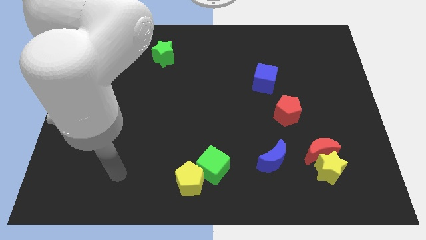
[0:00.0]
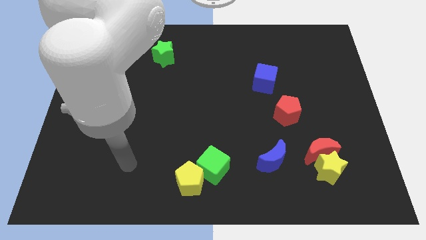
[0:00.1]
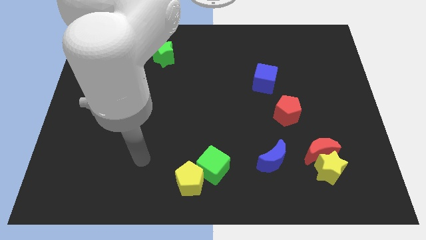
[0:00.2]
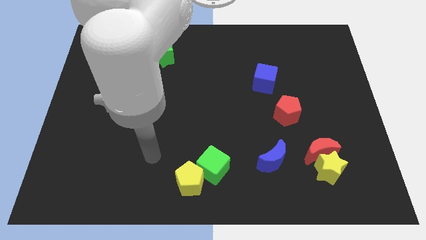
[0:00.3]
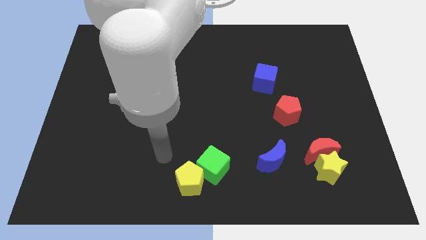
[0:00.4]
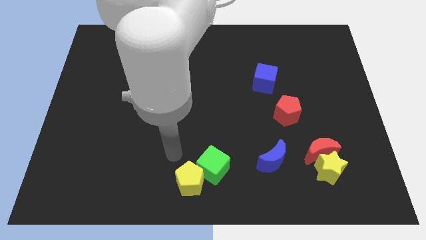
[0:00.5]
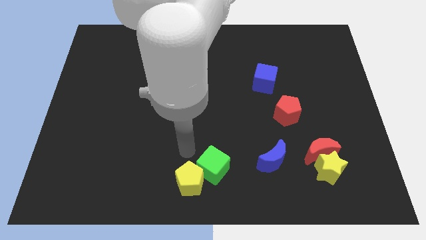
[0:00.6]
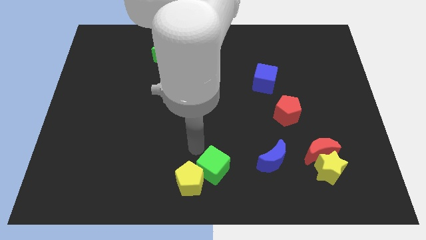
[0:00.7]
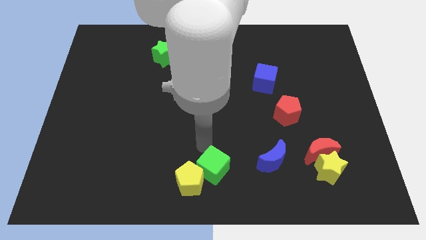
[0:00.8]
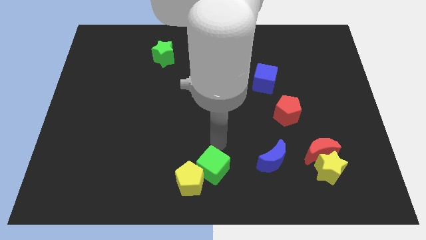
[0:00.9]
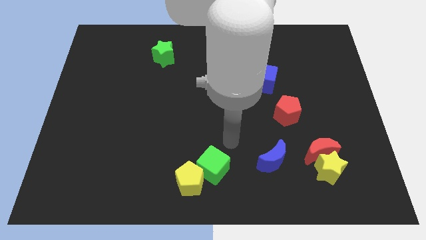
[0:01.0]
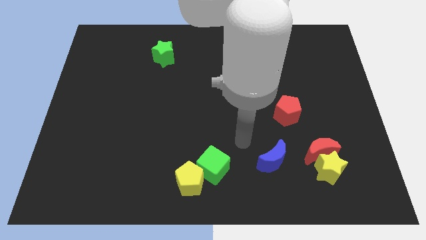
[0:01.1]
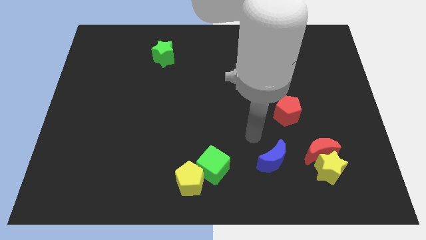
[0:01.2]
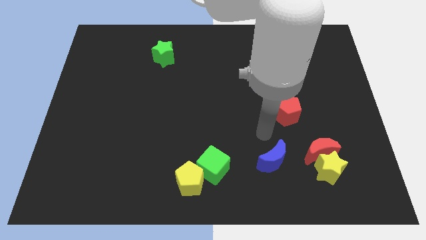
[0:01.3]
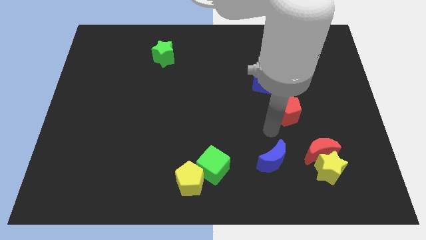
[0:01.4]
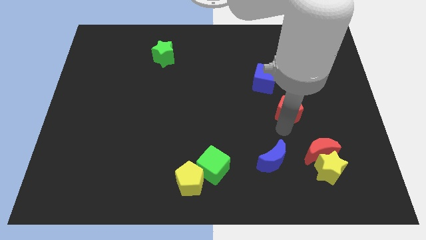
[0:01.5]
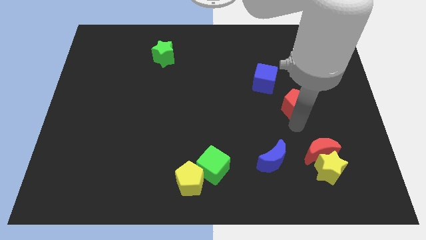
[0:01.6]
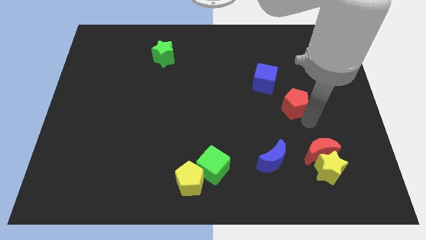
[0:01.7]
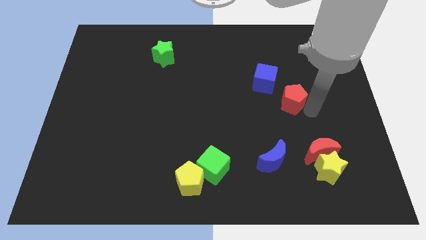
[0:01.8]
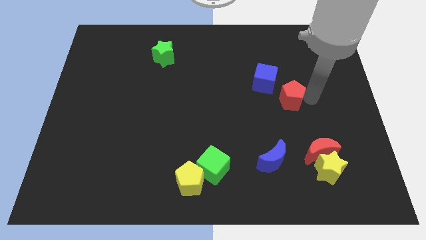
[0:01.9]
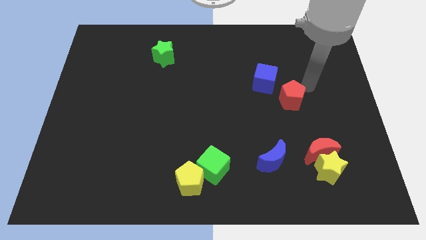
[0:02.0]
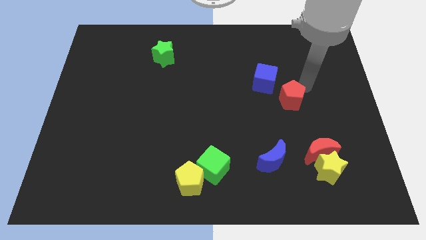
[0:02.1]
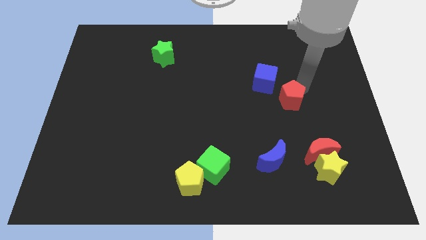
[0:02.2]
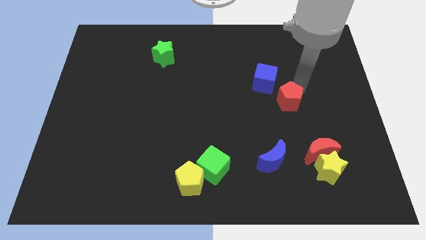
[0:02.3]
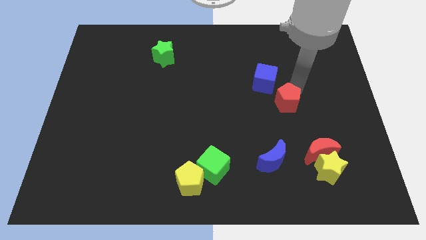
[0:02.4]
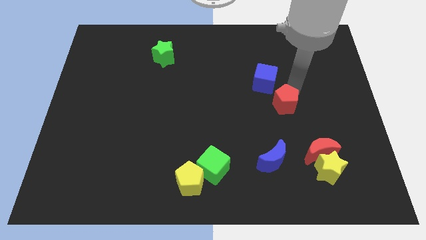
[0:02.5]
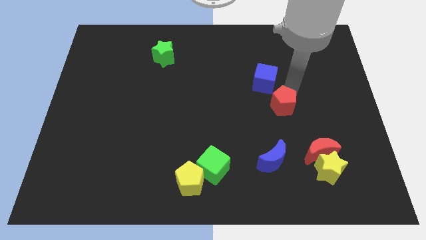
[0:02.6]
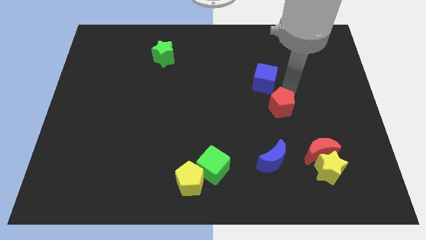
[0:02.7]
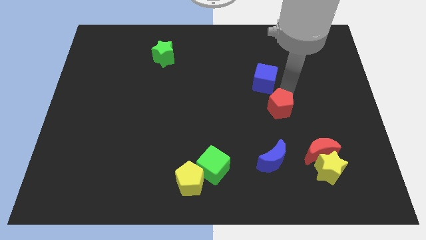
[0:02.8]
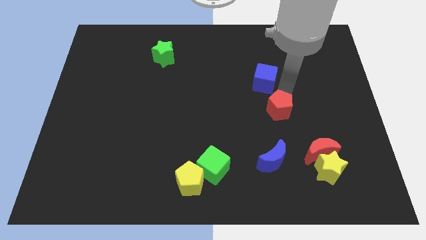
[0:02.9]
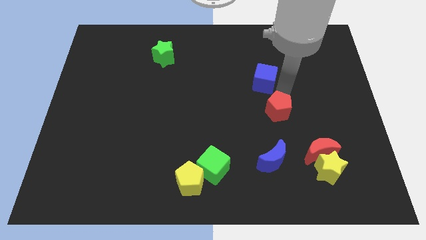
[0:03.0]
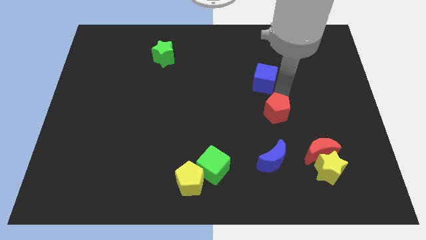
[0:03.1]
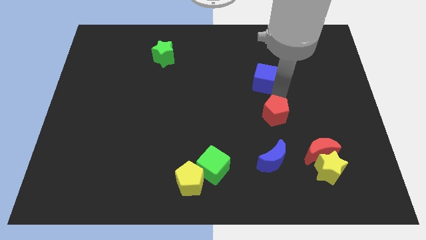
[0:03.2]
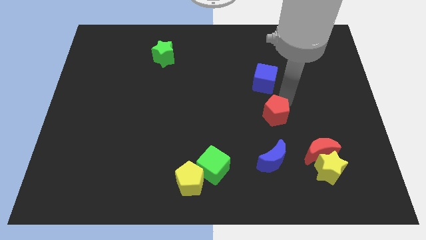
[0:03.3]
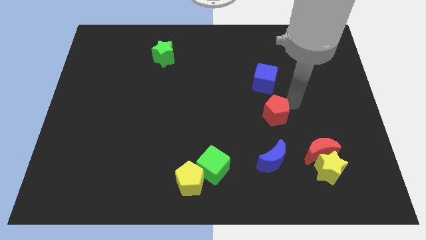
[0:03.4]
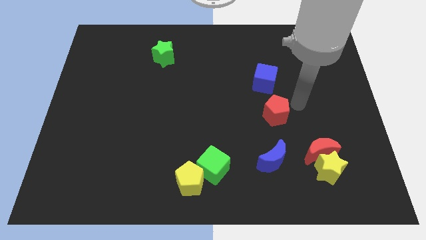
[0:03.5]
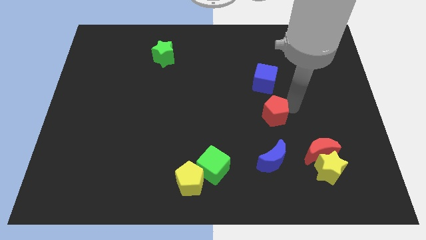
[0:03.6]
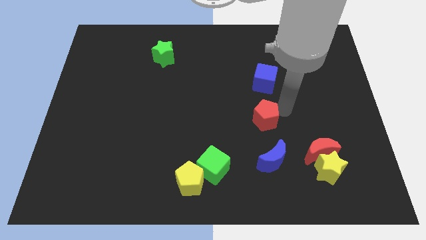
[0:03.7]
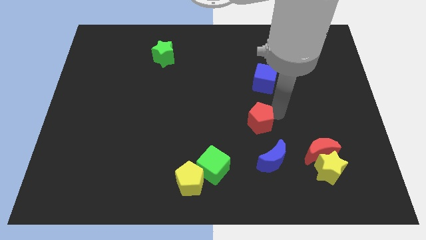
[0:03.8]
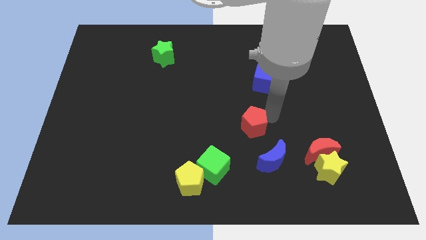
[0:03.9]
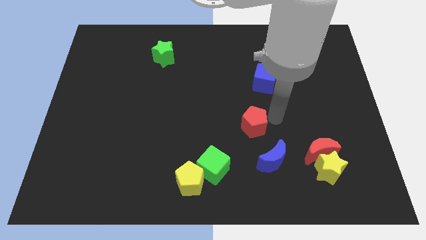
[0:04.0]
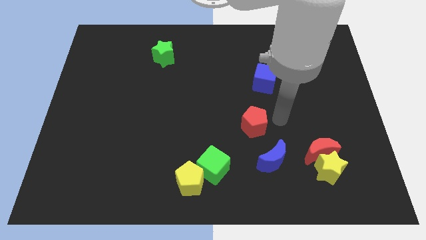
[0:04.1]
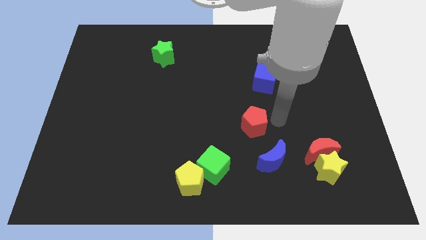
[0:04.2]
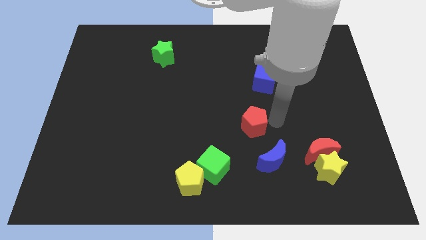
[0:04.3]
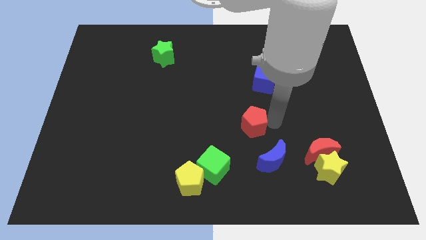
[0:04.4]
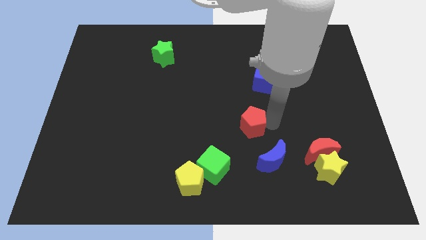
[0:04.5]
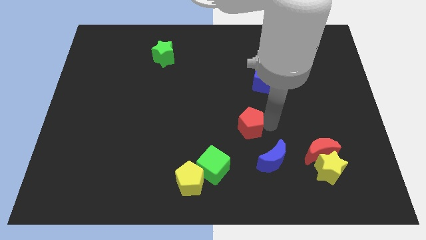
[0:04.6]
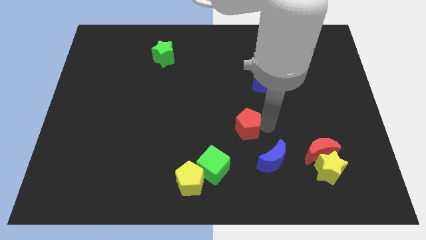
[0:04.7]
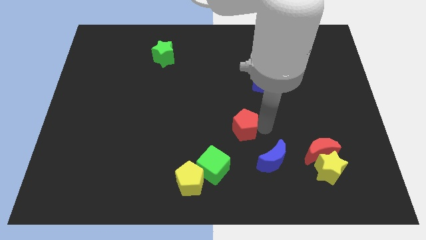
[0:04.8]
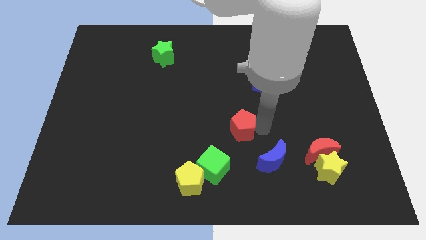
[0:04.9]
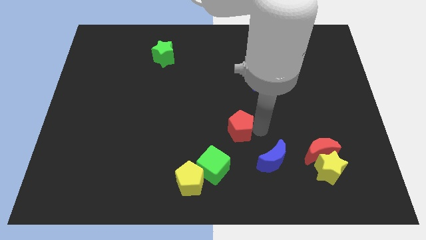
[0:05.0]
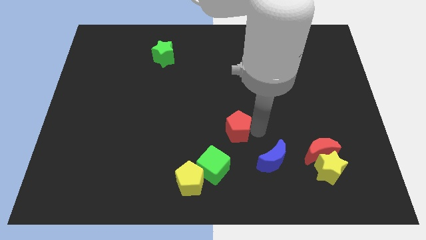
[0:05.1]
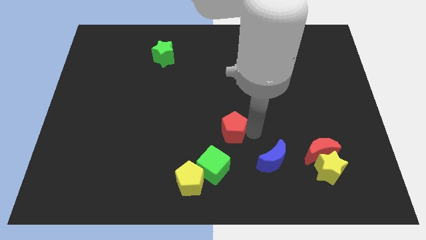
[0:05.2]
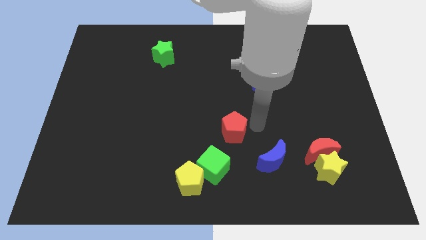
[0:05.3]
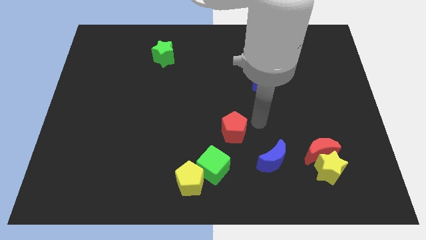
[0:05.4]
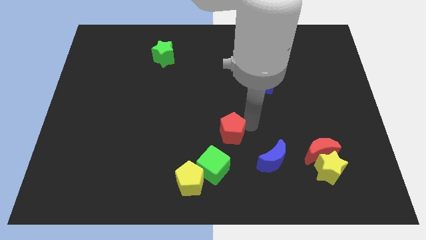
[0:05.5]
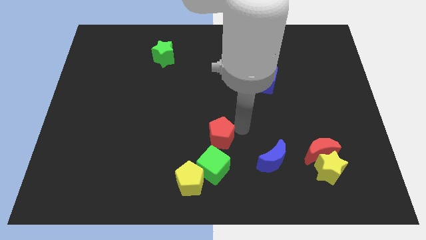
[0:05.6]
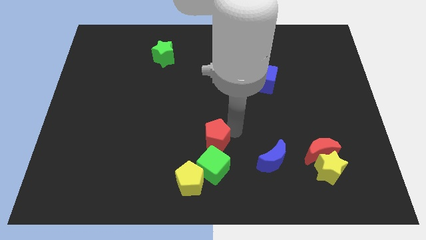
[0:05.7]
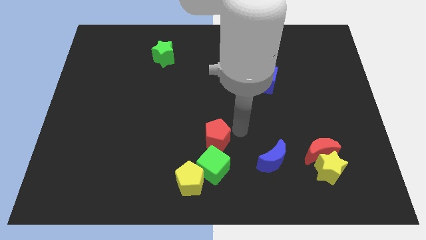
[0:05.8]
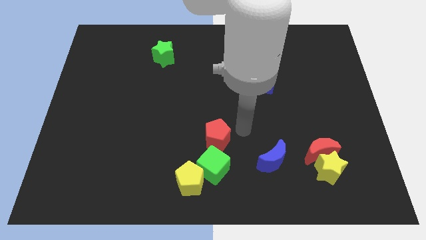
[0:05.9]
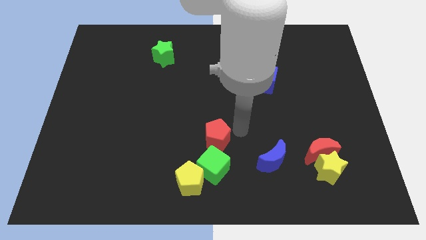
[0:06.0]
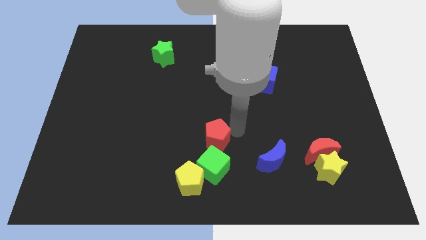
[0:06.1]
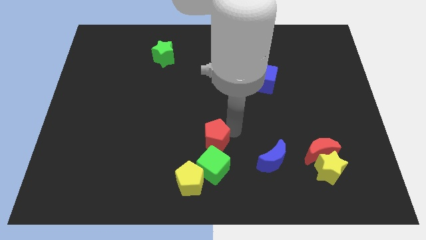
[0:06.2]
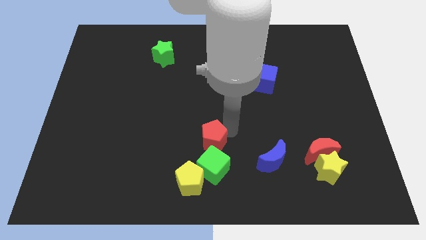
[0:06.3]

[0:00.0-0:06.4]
move the red pentagon to the top left of the green cube
